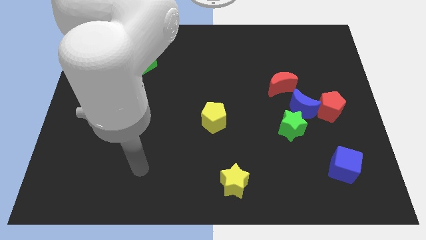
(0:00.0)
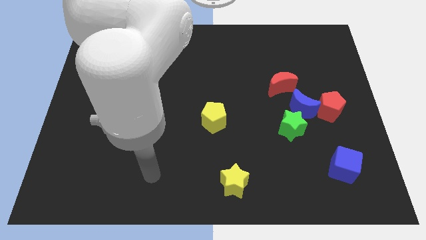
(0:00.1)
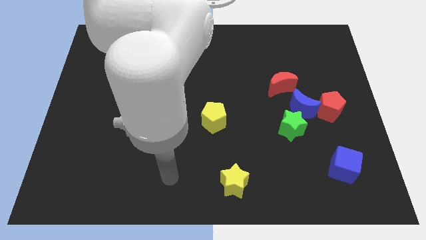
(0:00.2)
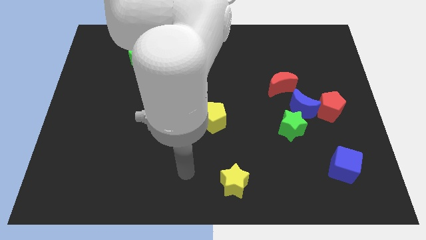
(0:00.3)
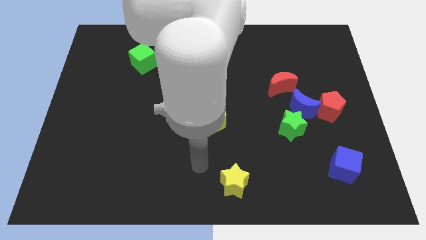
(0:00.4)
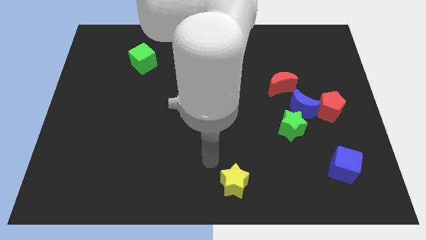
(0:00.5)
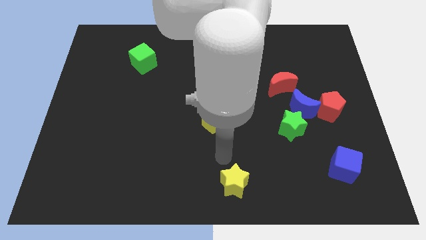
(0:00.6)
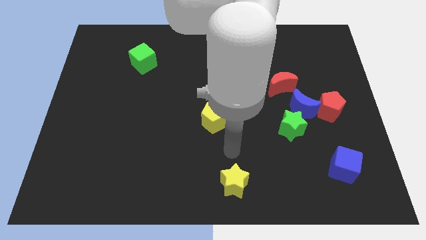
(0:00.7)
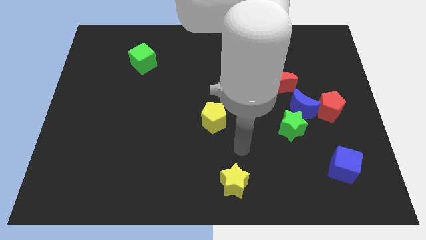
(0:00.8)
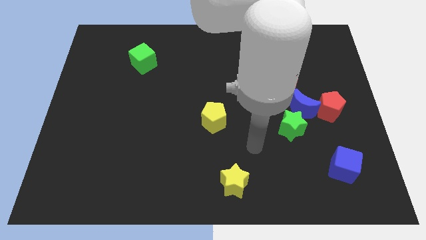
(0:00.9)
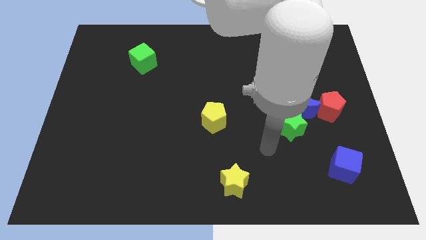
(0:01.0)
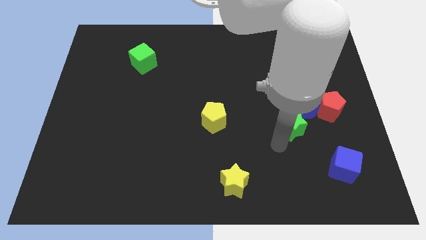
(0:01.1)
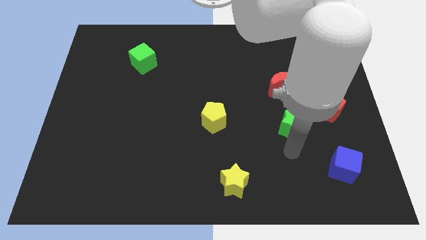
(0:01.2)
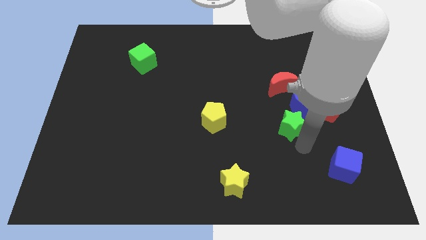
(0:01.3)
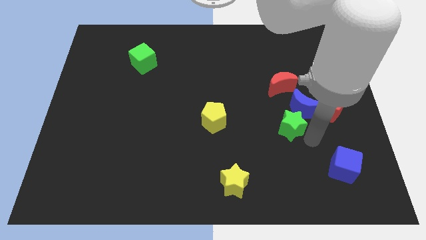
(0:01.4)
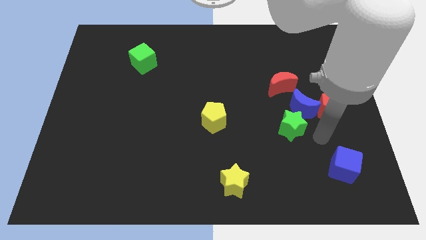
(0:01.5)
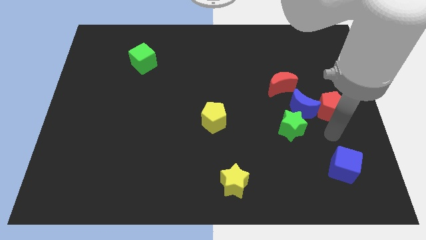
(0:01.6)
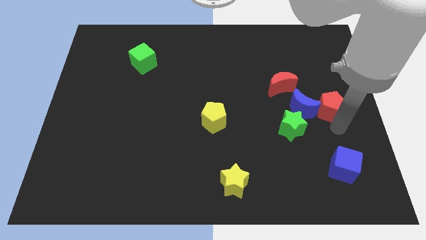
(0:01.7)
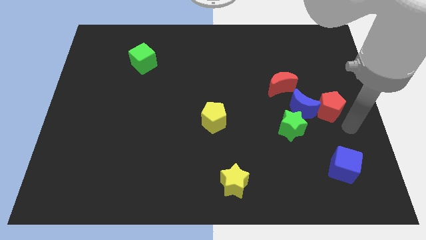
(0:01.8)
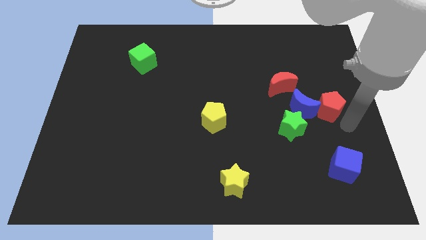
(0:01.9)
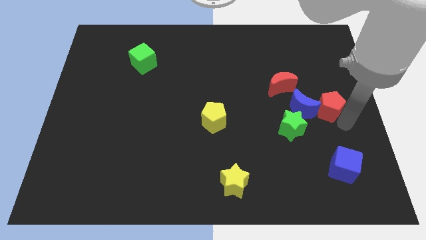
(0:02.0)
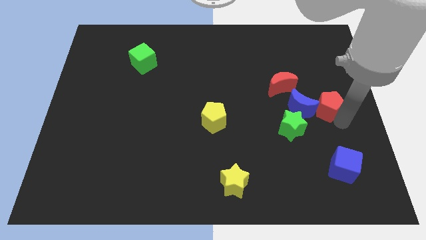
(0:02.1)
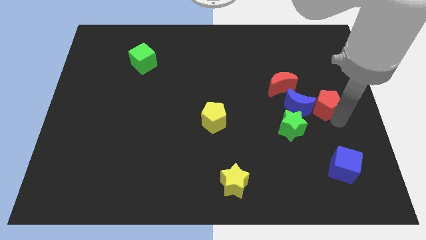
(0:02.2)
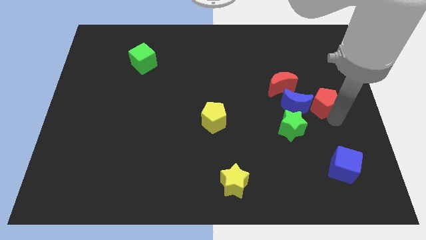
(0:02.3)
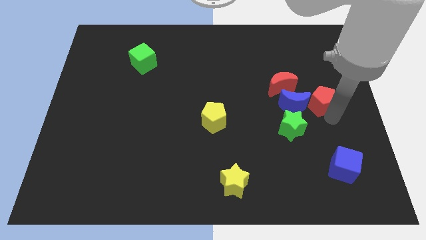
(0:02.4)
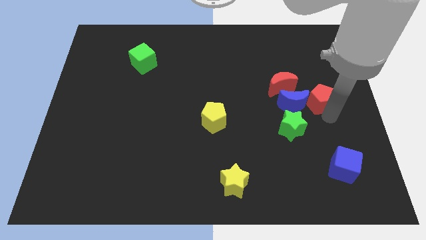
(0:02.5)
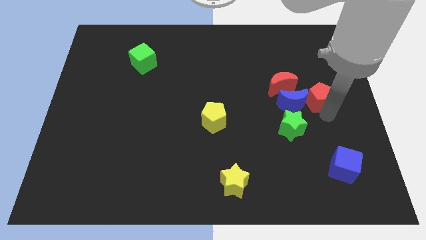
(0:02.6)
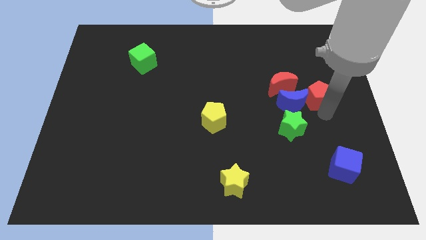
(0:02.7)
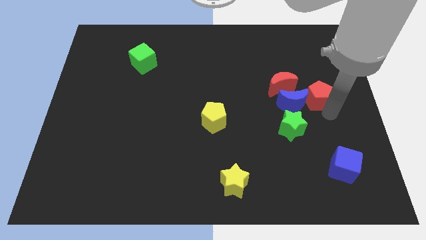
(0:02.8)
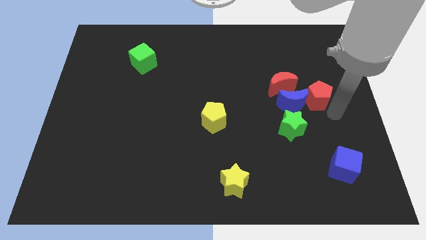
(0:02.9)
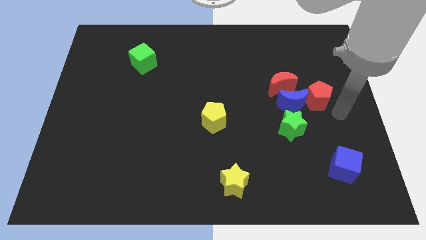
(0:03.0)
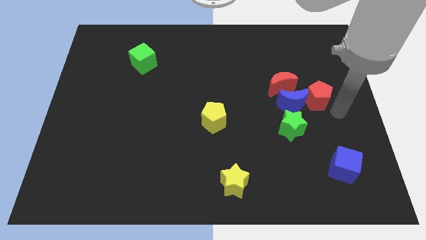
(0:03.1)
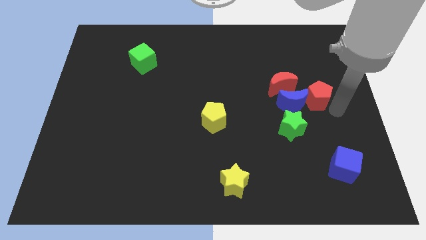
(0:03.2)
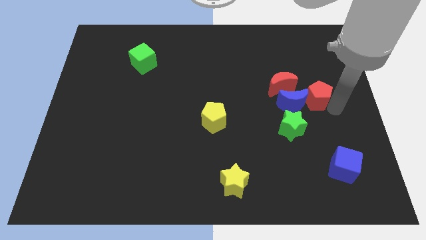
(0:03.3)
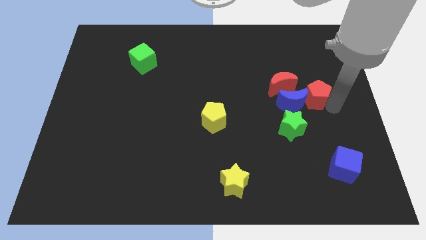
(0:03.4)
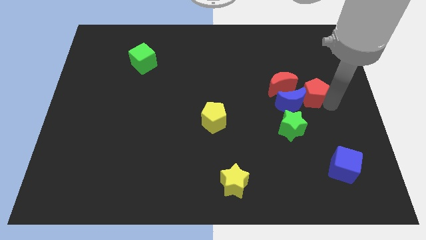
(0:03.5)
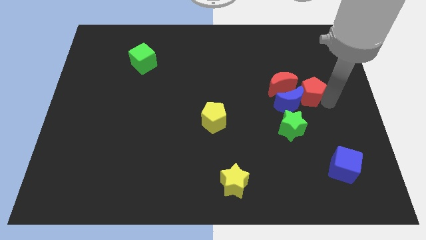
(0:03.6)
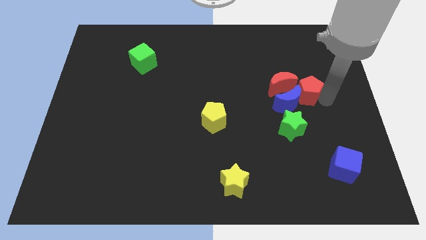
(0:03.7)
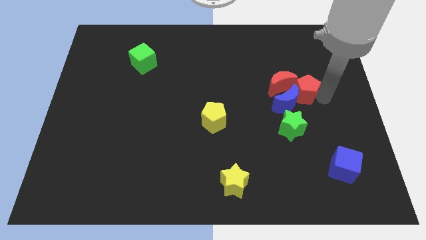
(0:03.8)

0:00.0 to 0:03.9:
push the red pentagon a little upwards and to the left diagonally

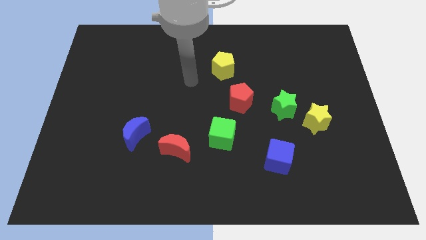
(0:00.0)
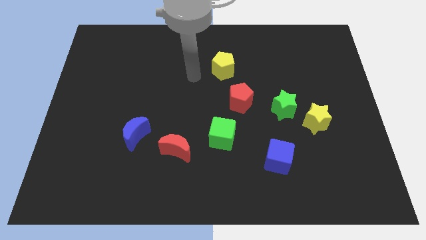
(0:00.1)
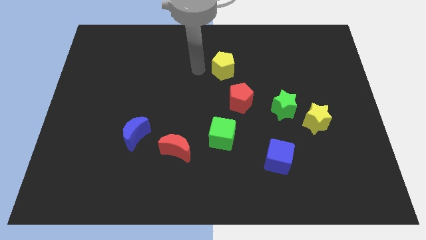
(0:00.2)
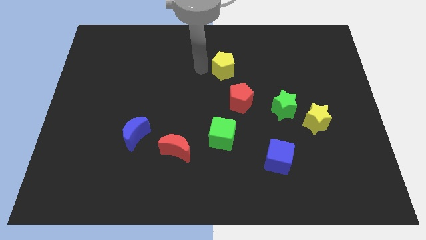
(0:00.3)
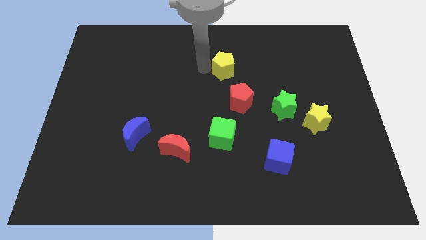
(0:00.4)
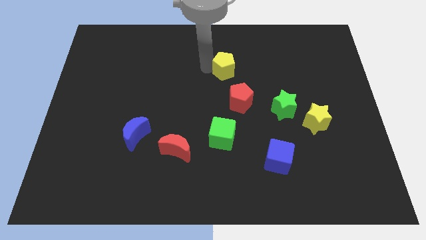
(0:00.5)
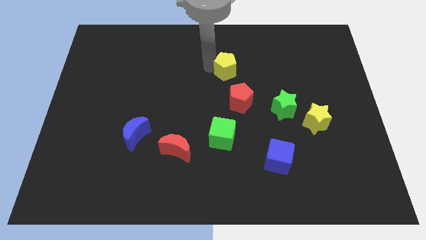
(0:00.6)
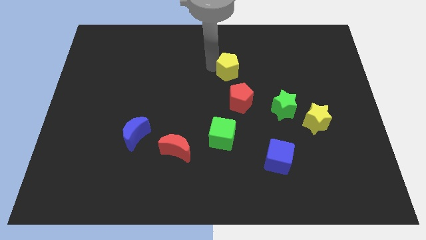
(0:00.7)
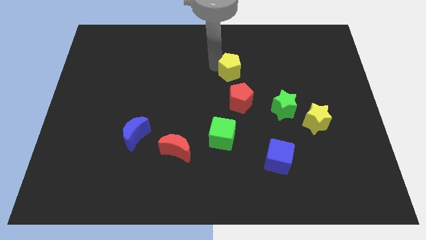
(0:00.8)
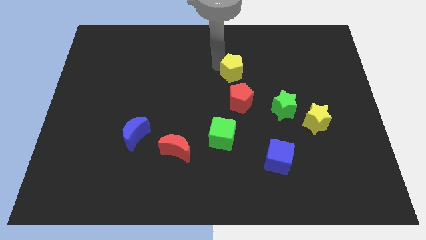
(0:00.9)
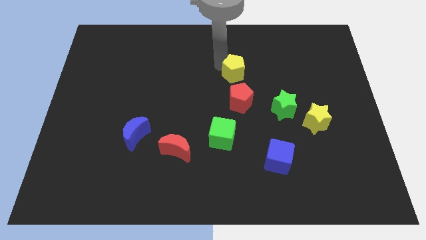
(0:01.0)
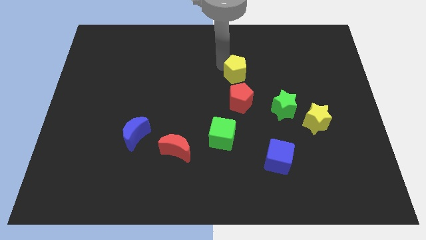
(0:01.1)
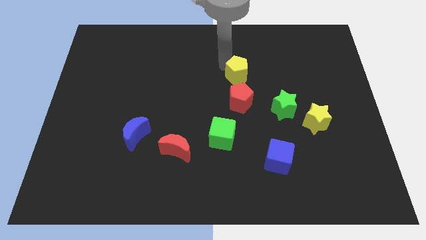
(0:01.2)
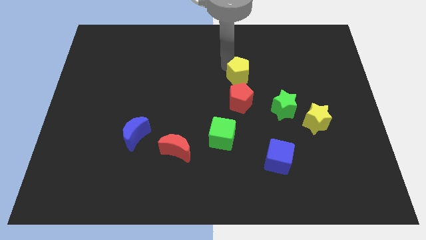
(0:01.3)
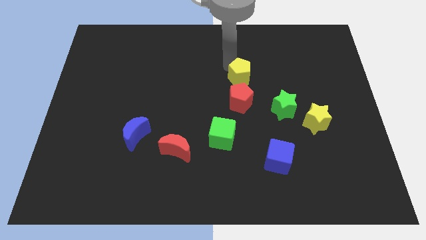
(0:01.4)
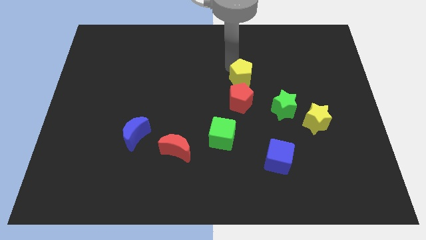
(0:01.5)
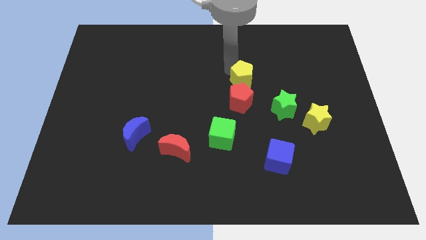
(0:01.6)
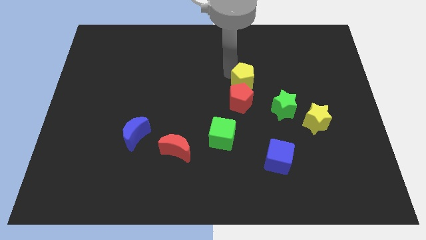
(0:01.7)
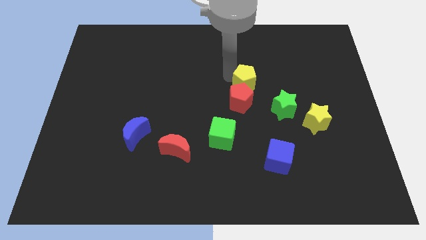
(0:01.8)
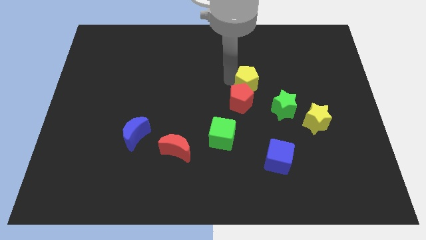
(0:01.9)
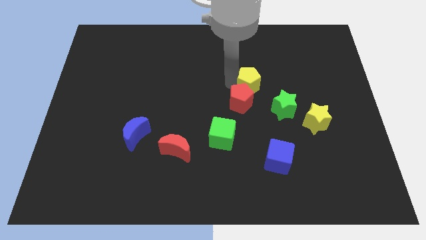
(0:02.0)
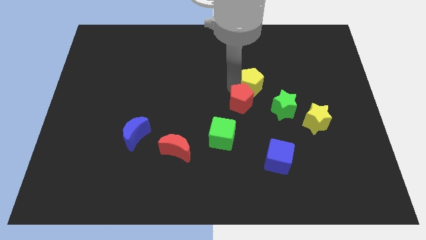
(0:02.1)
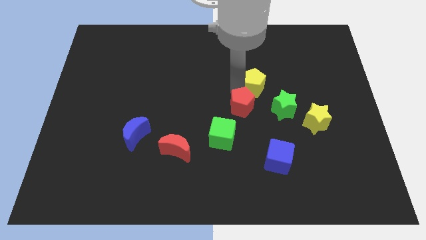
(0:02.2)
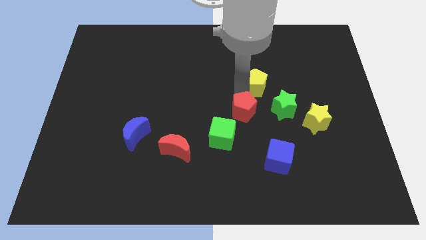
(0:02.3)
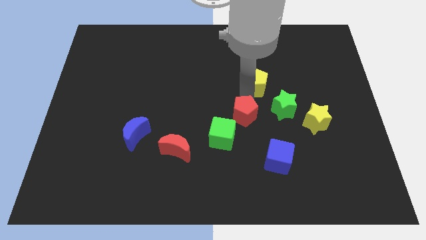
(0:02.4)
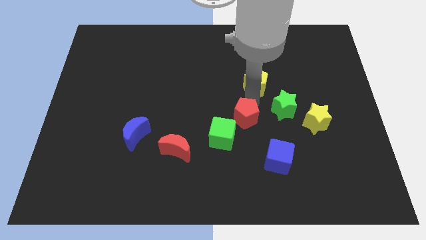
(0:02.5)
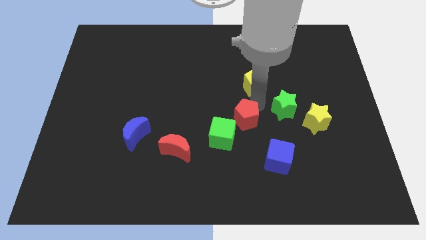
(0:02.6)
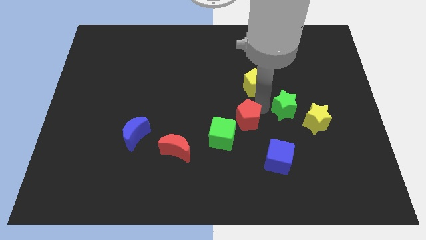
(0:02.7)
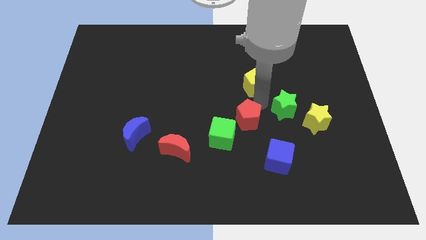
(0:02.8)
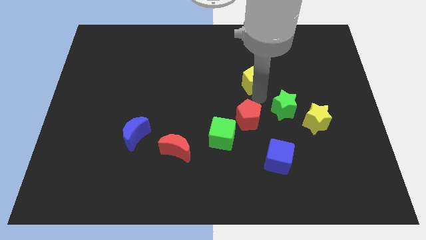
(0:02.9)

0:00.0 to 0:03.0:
slightly push the yellow pentagon to the right

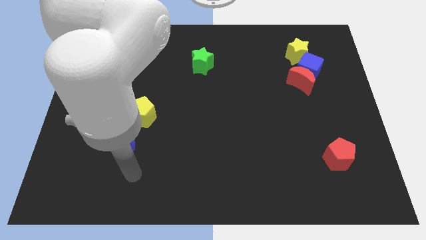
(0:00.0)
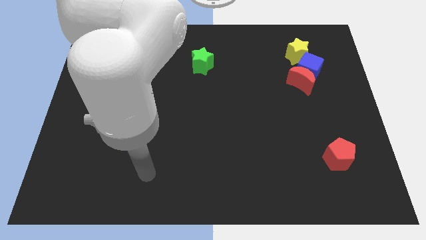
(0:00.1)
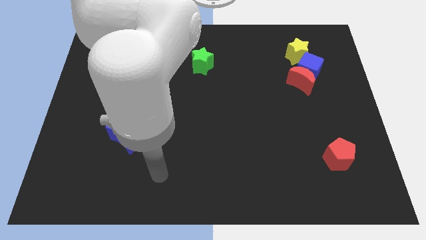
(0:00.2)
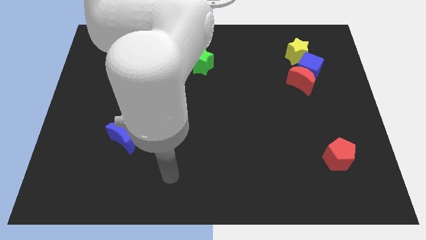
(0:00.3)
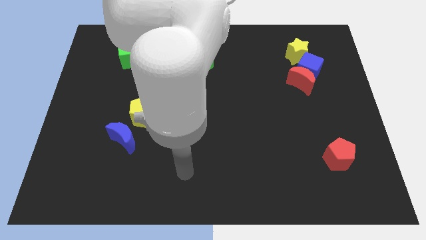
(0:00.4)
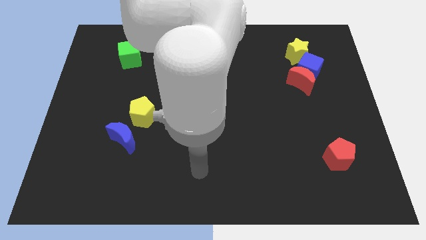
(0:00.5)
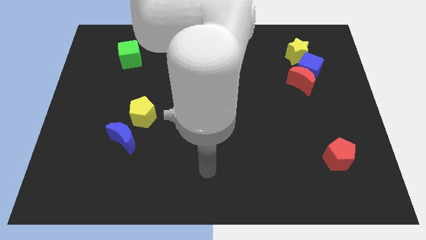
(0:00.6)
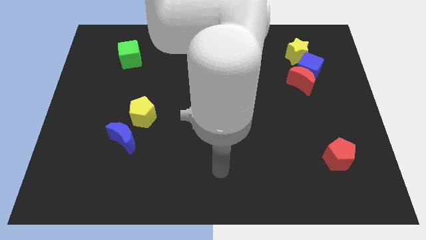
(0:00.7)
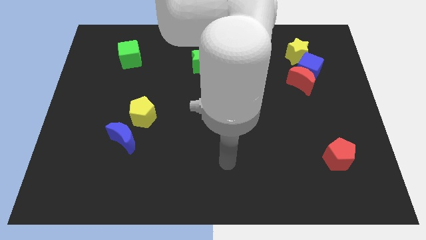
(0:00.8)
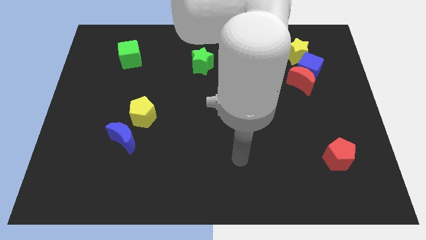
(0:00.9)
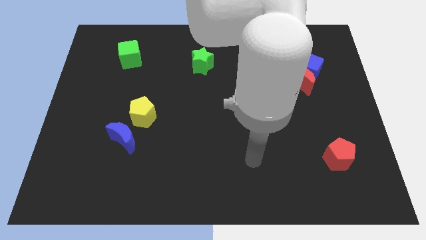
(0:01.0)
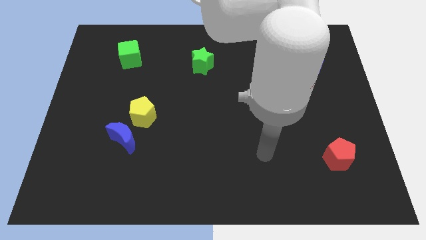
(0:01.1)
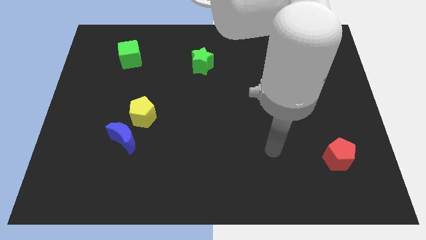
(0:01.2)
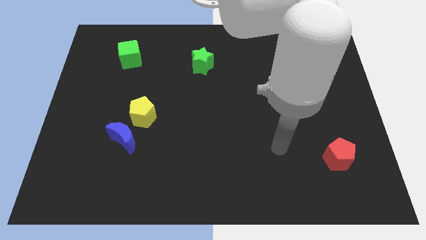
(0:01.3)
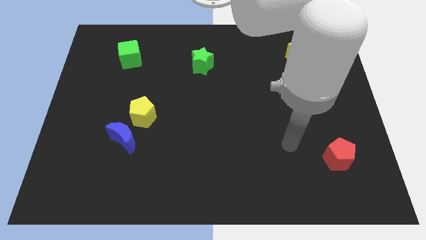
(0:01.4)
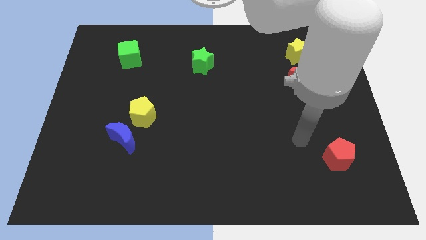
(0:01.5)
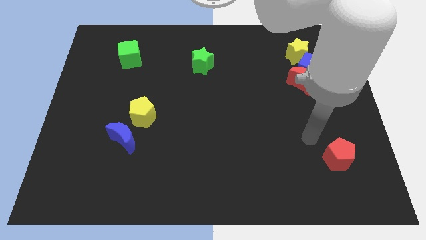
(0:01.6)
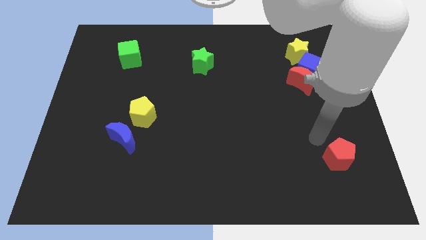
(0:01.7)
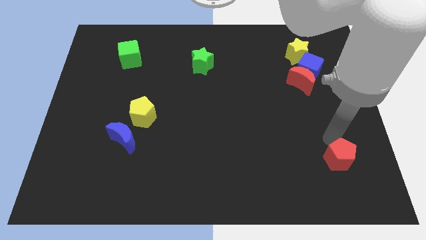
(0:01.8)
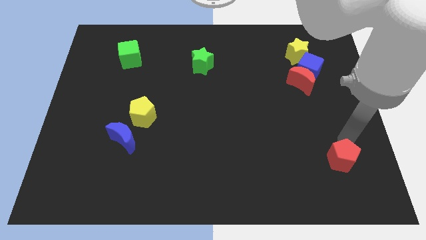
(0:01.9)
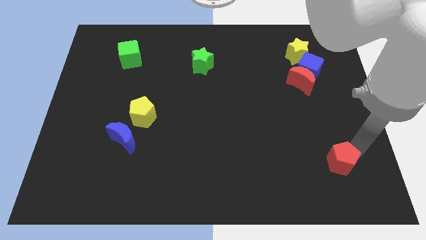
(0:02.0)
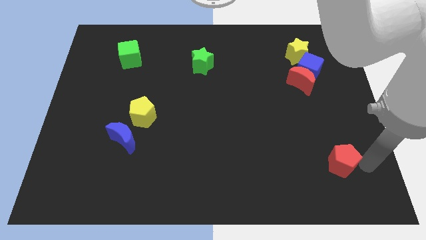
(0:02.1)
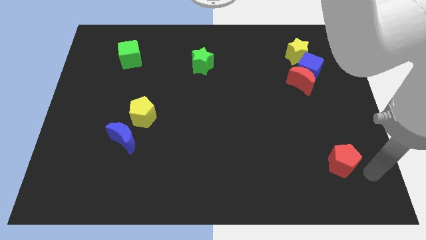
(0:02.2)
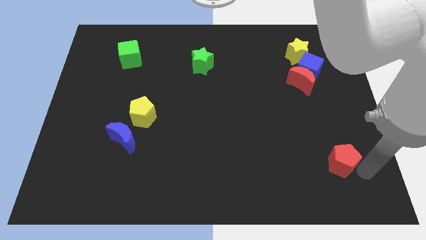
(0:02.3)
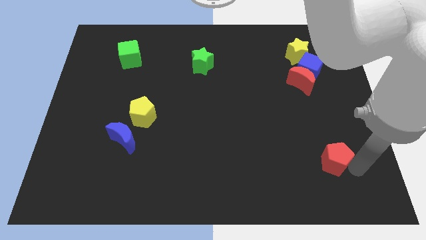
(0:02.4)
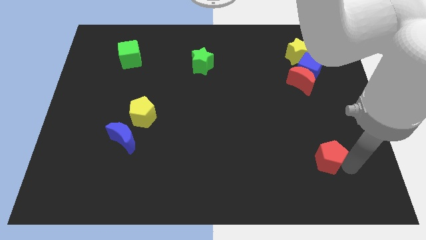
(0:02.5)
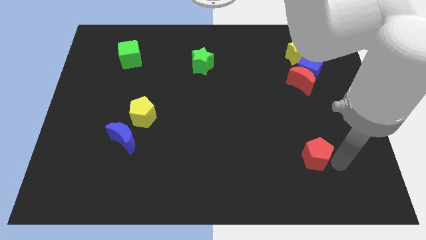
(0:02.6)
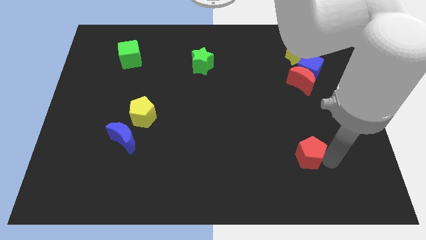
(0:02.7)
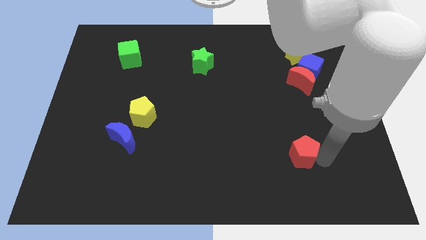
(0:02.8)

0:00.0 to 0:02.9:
push the red pentagon a little left
